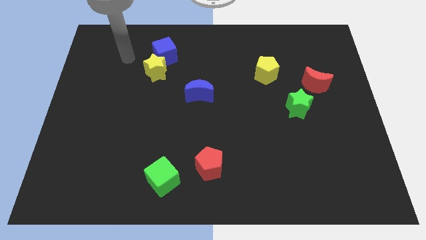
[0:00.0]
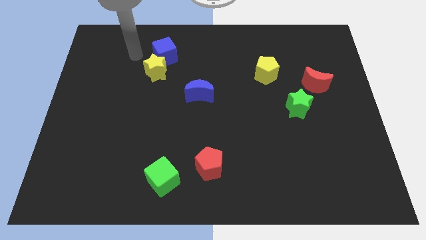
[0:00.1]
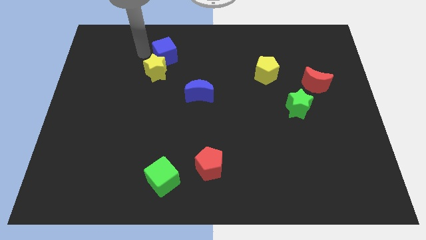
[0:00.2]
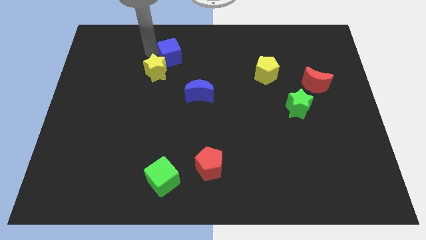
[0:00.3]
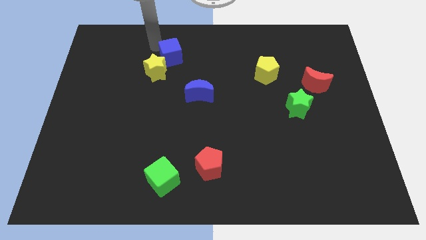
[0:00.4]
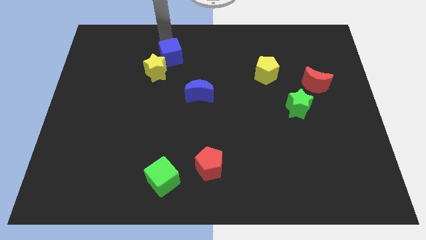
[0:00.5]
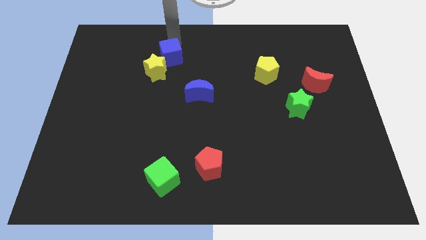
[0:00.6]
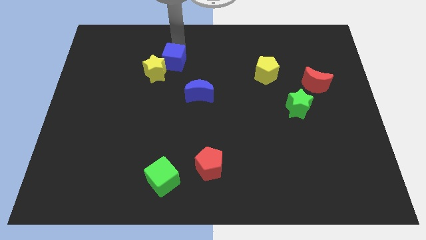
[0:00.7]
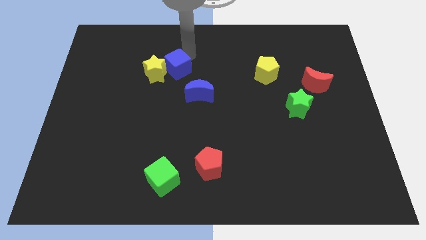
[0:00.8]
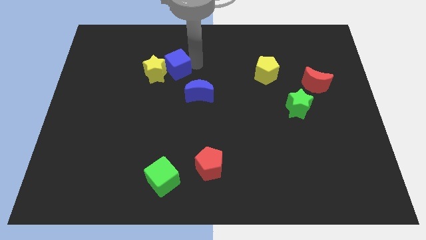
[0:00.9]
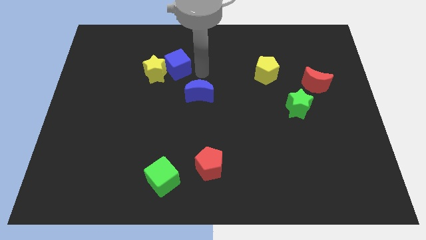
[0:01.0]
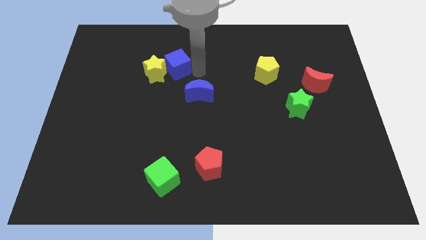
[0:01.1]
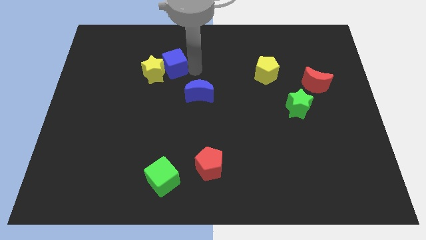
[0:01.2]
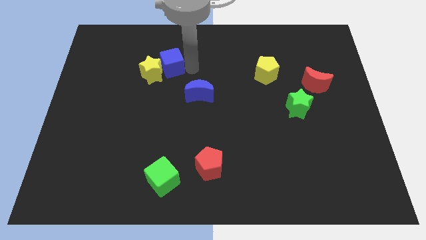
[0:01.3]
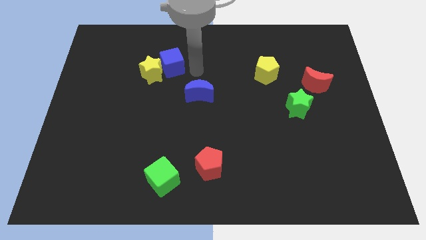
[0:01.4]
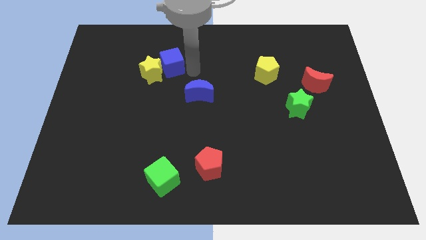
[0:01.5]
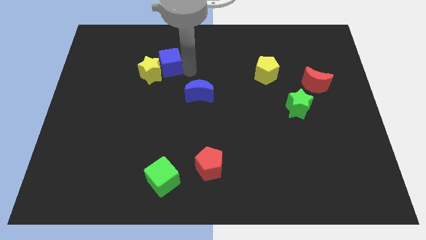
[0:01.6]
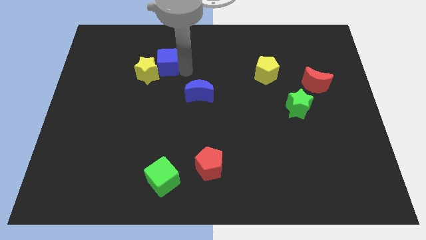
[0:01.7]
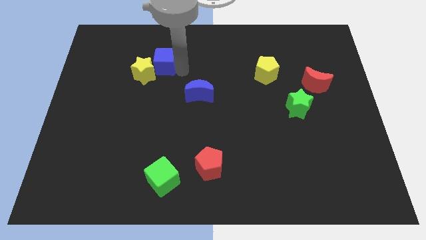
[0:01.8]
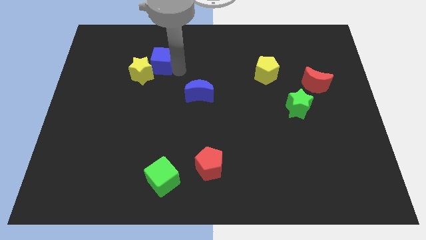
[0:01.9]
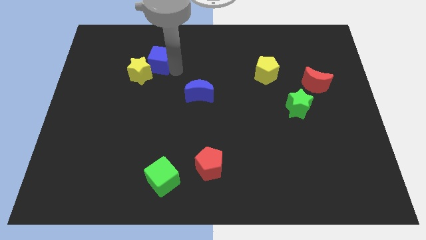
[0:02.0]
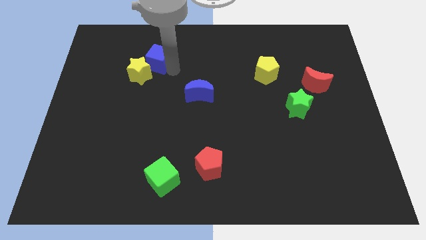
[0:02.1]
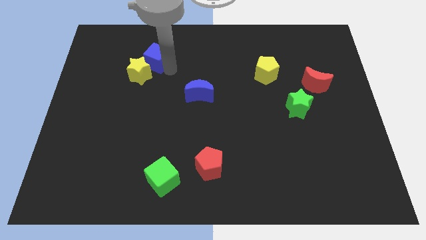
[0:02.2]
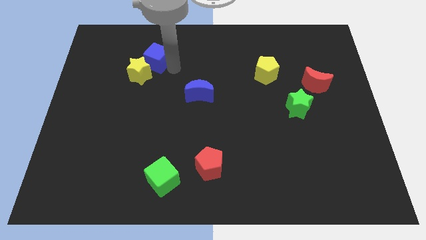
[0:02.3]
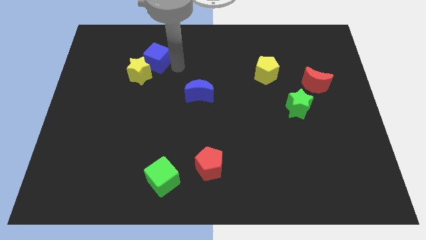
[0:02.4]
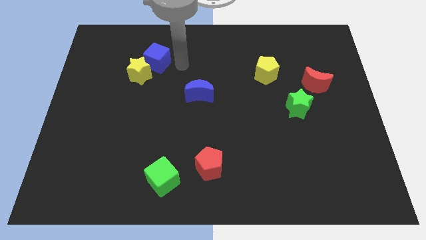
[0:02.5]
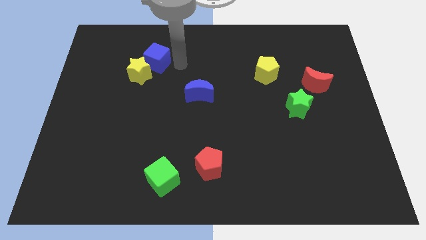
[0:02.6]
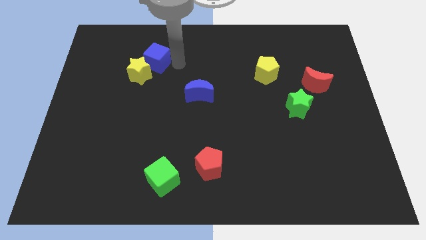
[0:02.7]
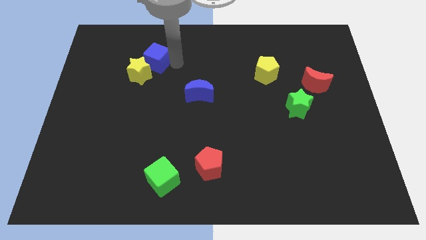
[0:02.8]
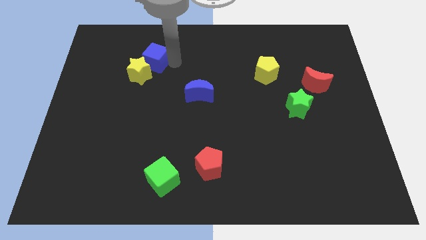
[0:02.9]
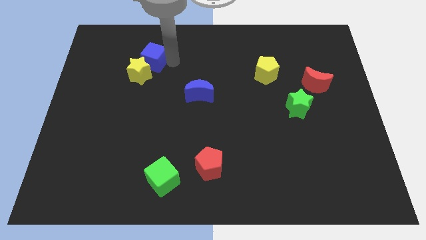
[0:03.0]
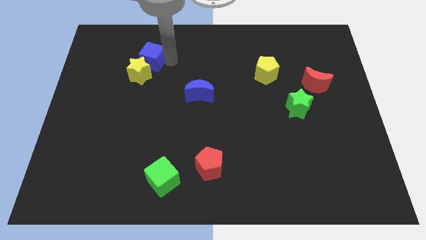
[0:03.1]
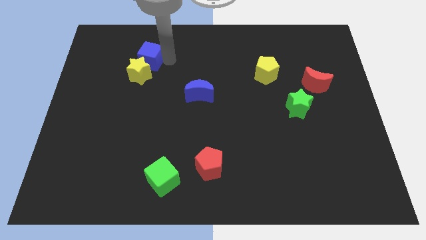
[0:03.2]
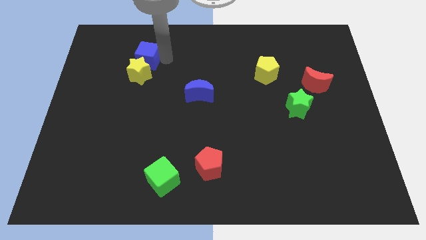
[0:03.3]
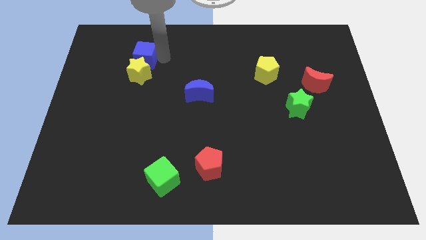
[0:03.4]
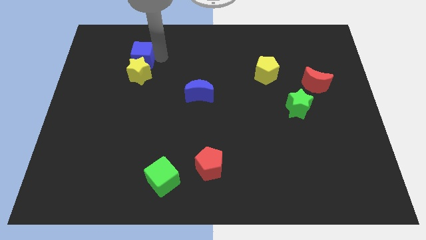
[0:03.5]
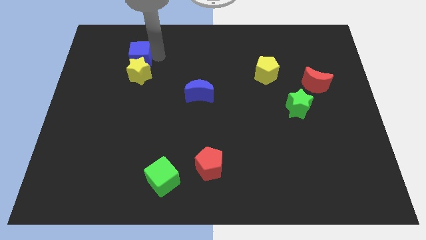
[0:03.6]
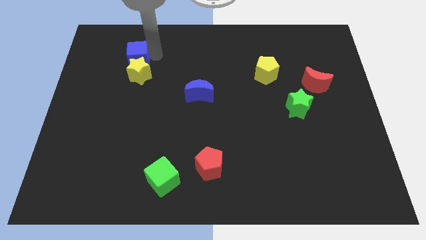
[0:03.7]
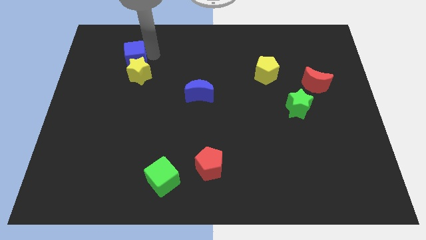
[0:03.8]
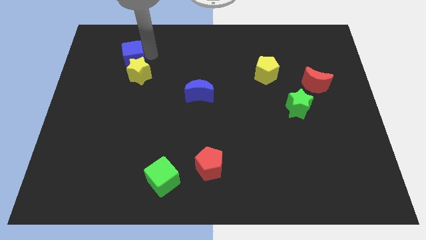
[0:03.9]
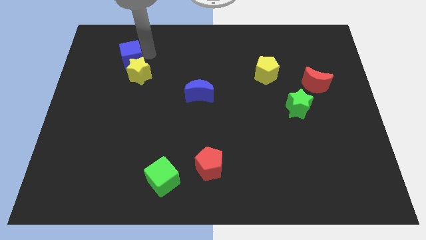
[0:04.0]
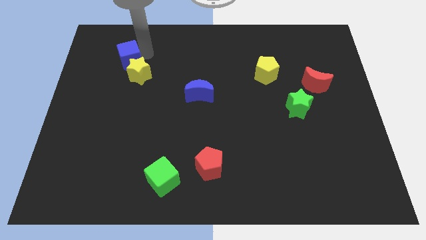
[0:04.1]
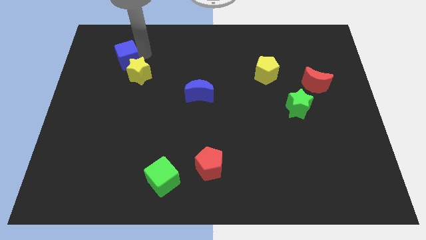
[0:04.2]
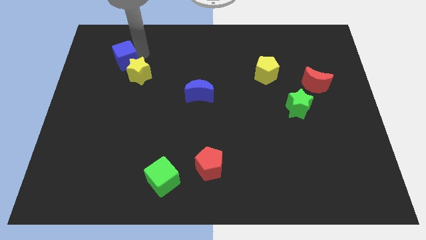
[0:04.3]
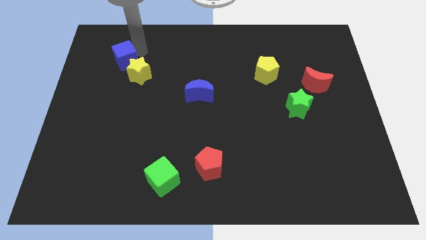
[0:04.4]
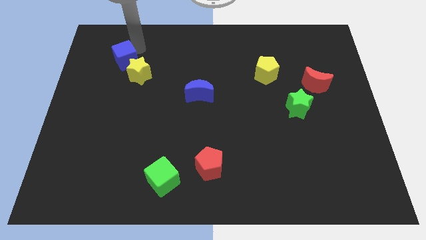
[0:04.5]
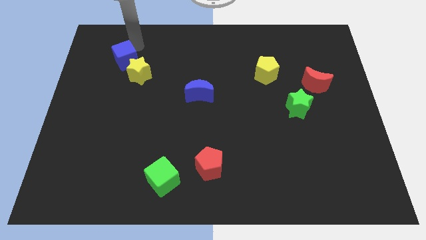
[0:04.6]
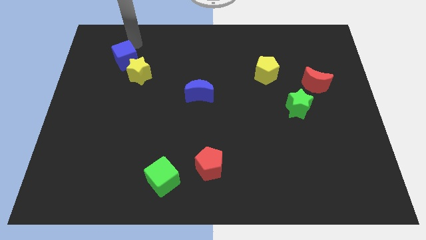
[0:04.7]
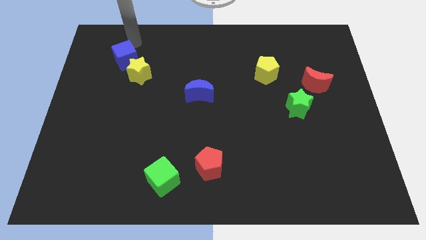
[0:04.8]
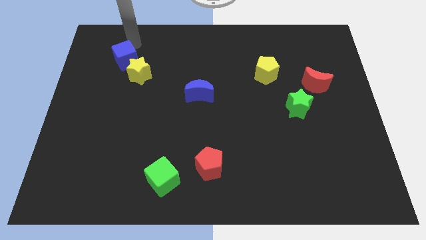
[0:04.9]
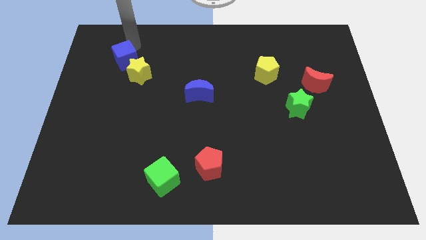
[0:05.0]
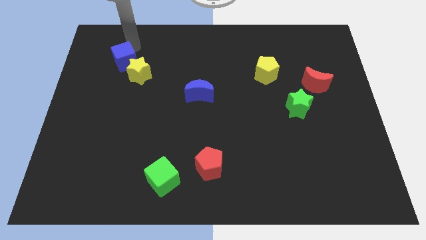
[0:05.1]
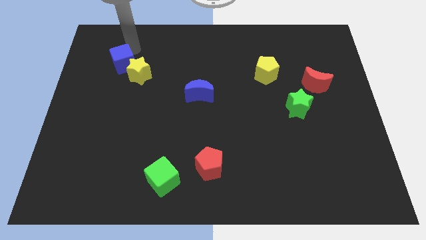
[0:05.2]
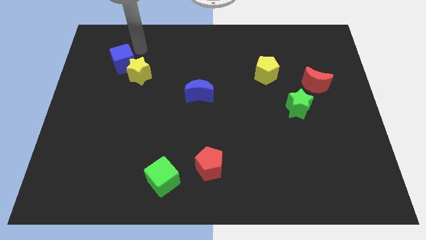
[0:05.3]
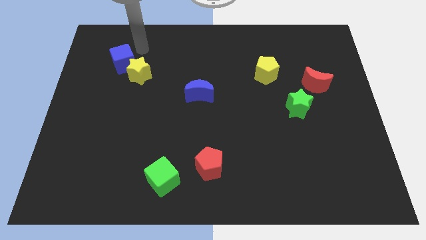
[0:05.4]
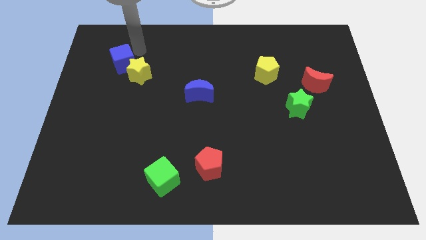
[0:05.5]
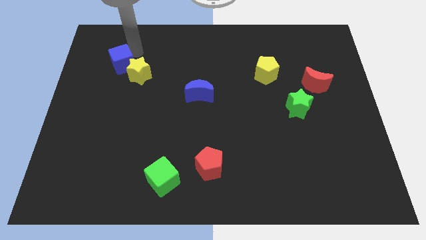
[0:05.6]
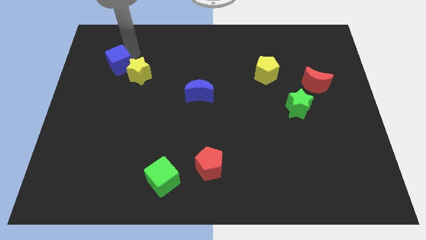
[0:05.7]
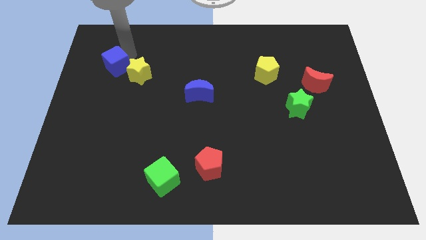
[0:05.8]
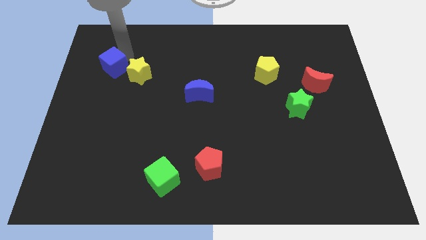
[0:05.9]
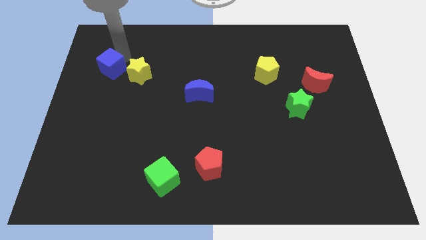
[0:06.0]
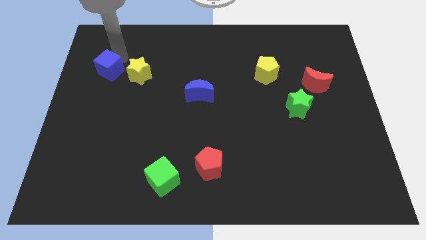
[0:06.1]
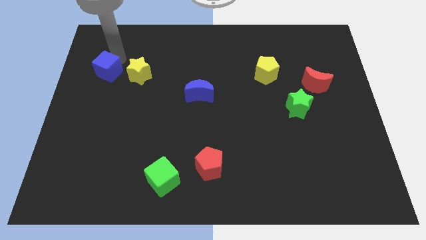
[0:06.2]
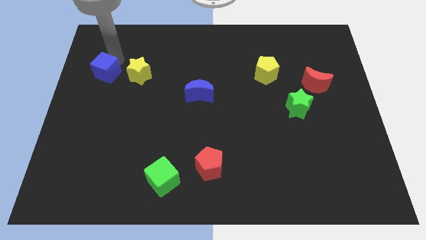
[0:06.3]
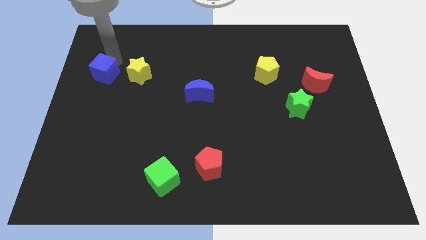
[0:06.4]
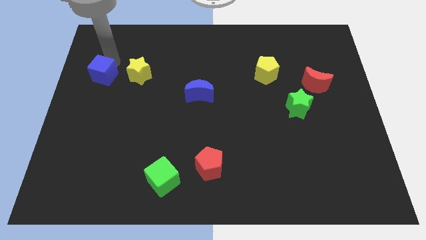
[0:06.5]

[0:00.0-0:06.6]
slide the blue cube to the left side of the board
